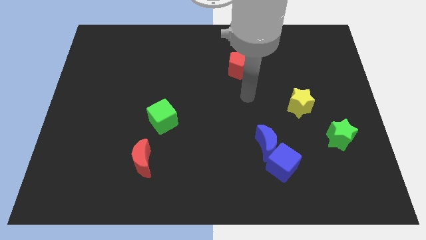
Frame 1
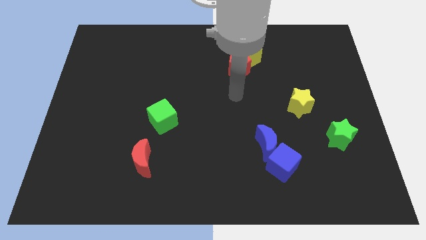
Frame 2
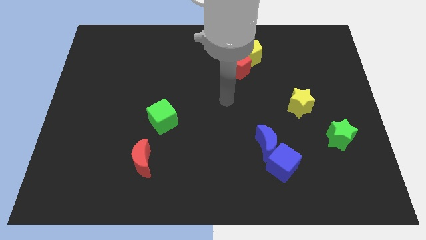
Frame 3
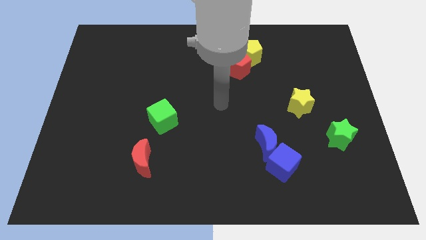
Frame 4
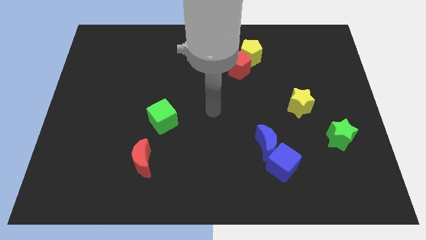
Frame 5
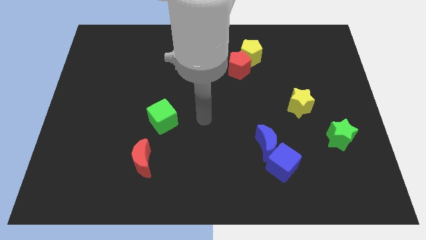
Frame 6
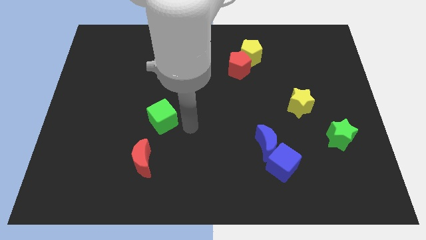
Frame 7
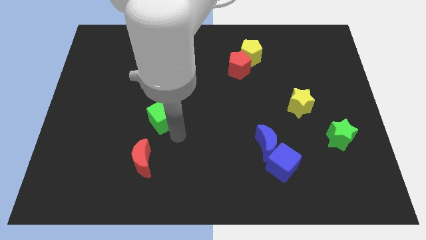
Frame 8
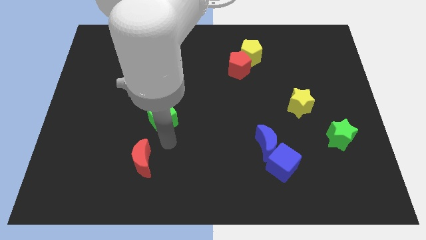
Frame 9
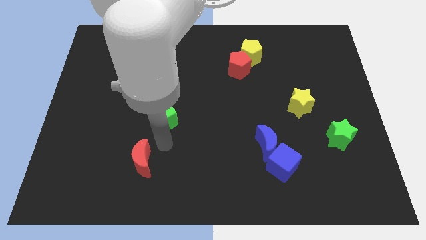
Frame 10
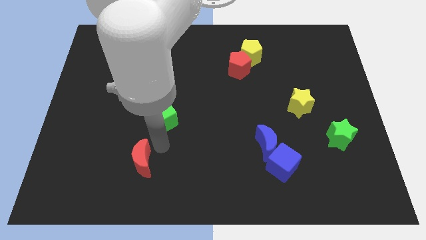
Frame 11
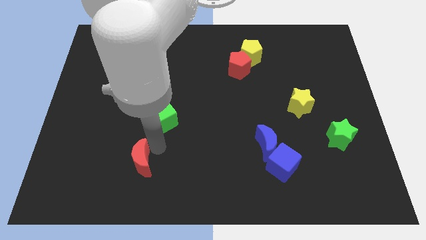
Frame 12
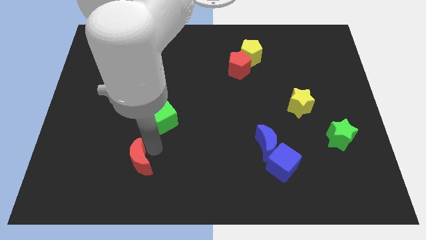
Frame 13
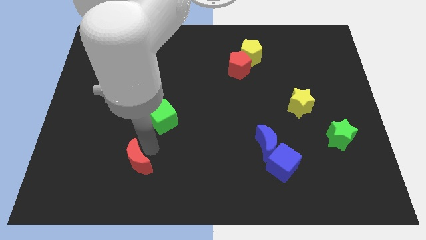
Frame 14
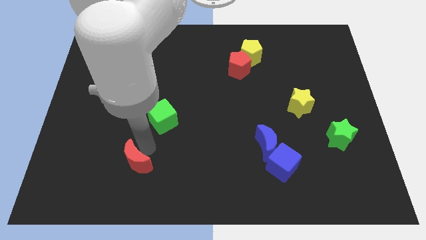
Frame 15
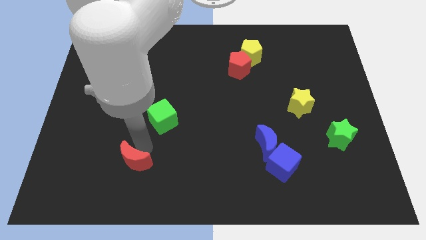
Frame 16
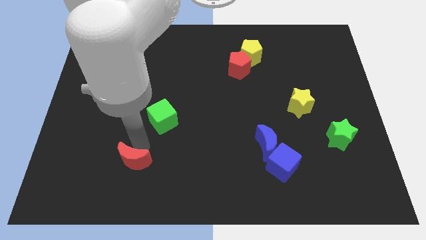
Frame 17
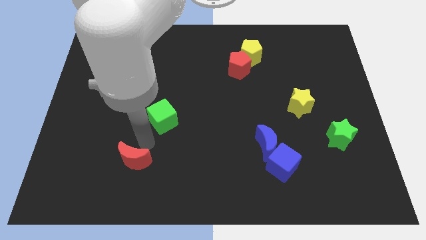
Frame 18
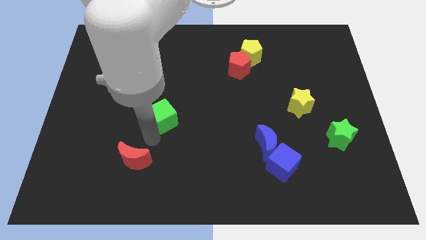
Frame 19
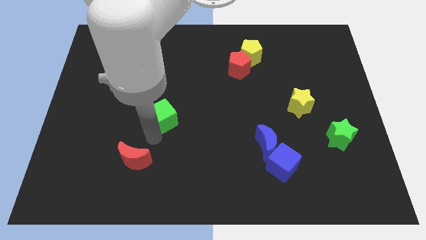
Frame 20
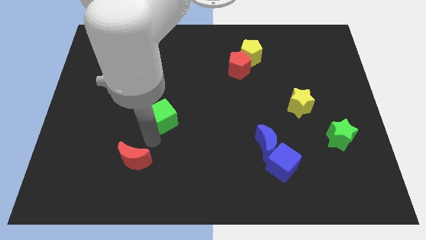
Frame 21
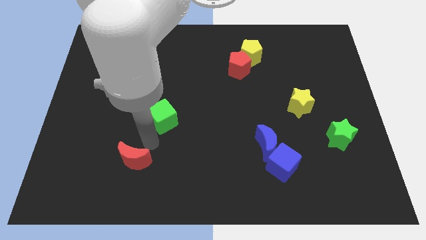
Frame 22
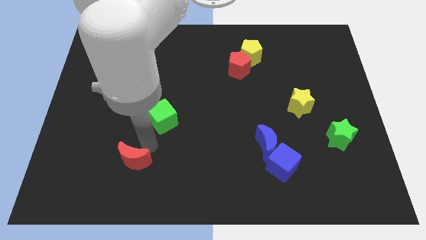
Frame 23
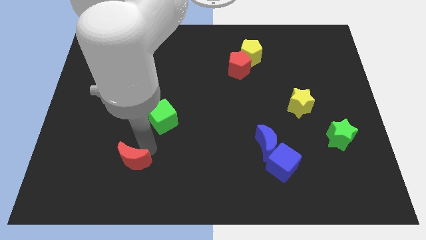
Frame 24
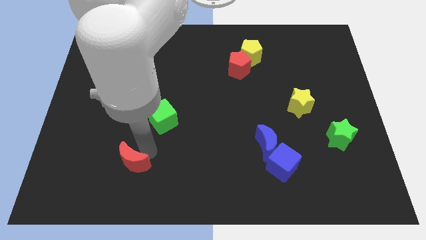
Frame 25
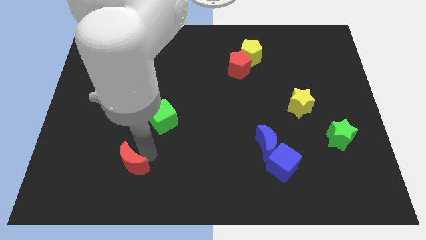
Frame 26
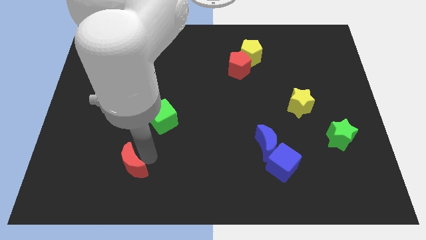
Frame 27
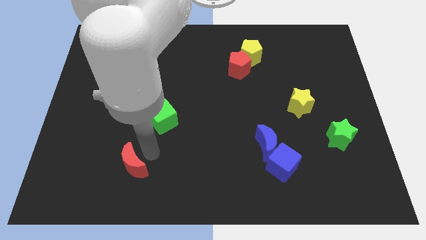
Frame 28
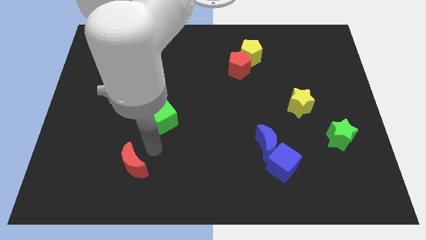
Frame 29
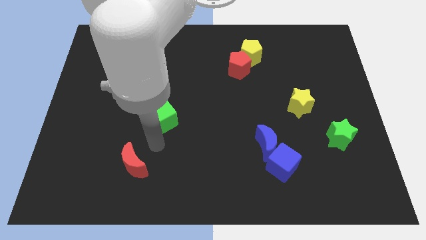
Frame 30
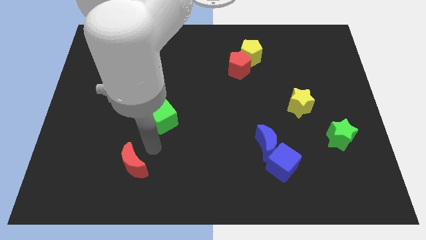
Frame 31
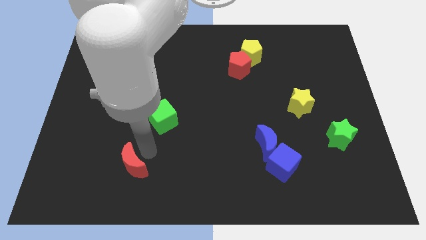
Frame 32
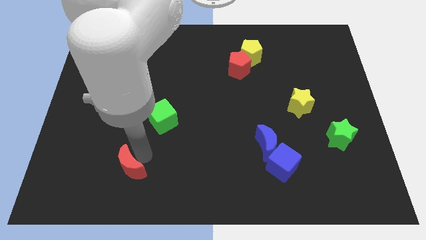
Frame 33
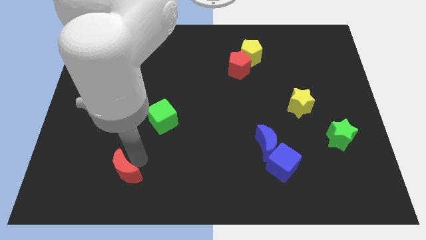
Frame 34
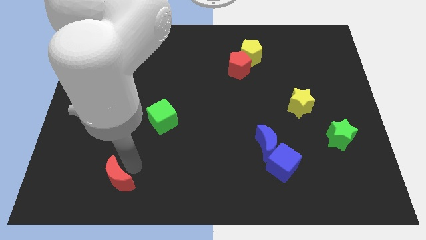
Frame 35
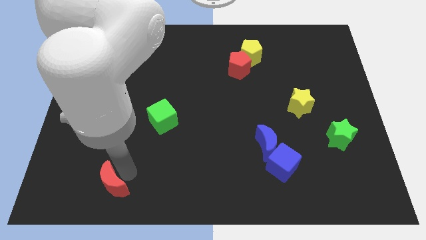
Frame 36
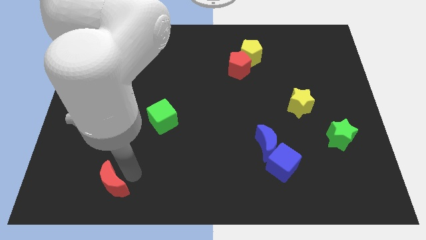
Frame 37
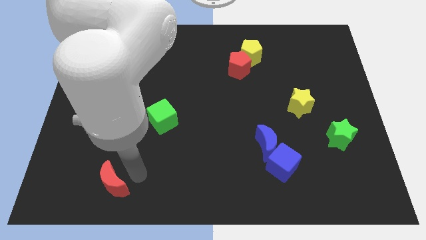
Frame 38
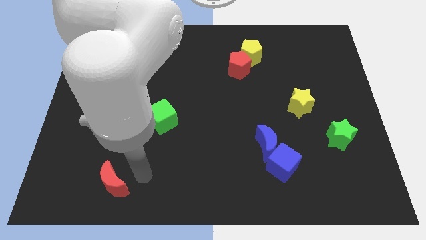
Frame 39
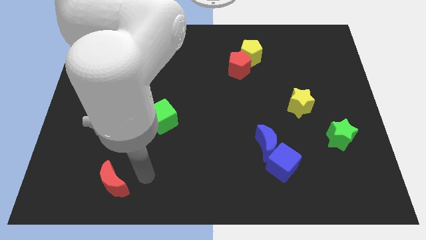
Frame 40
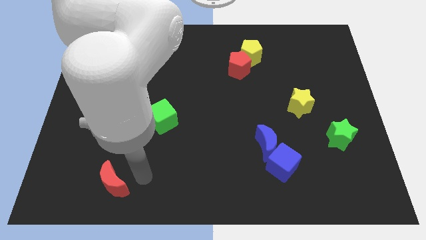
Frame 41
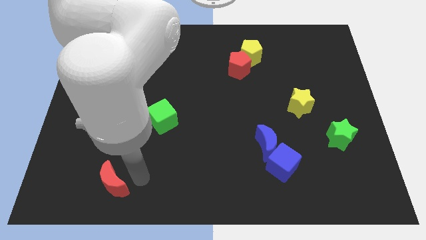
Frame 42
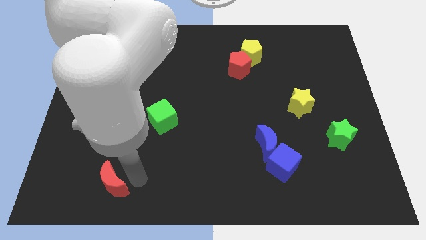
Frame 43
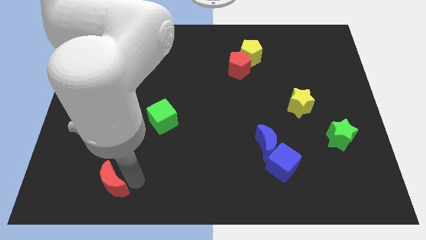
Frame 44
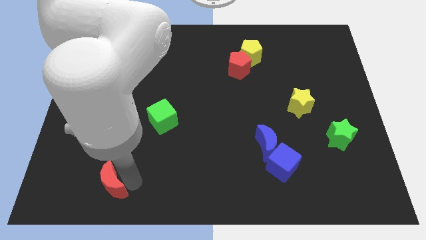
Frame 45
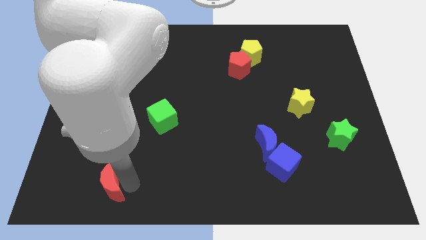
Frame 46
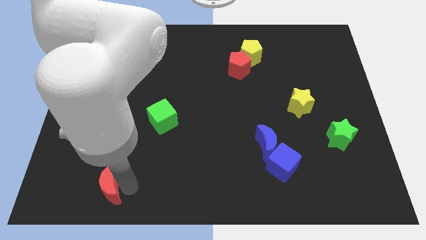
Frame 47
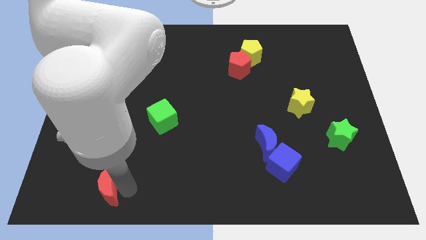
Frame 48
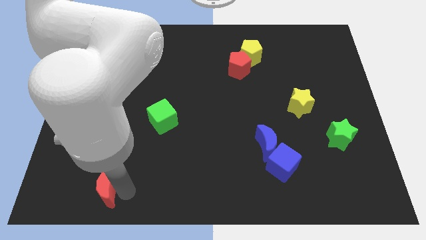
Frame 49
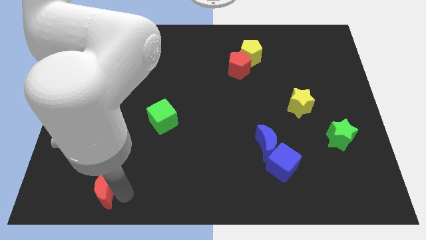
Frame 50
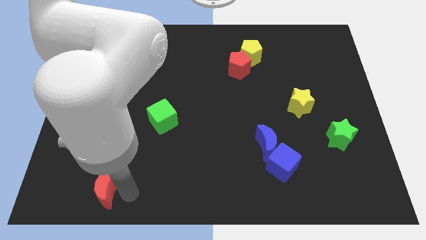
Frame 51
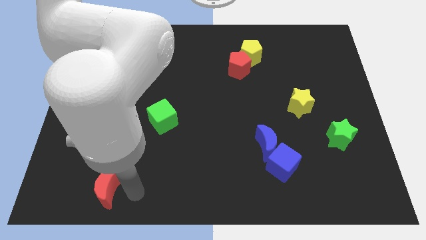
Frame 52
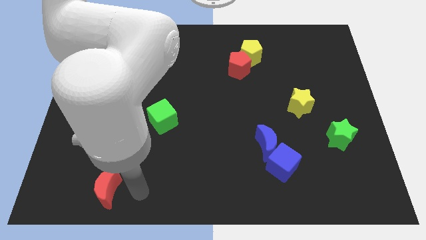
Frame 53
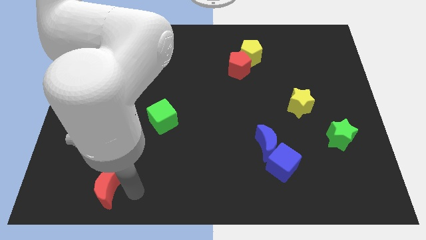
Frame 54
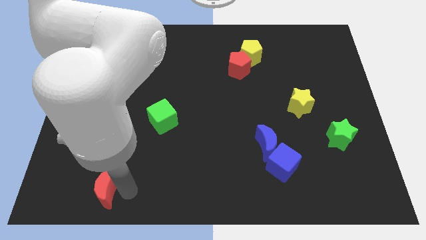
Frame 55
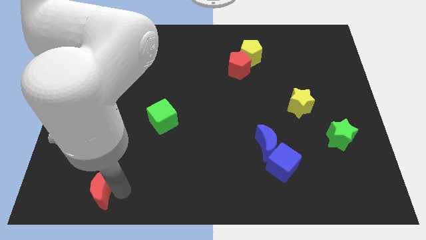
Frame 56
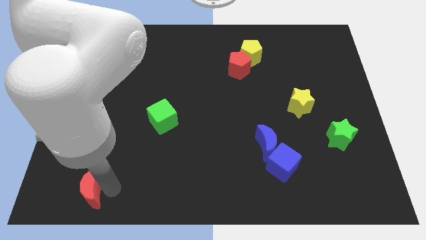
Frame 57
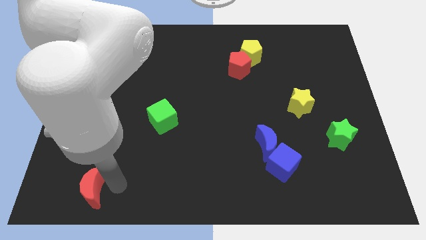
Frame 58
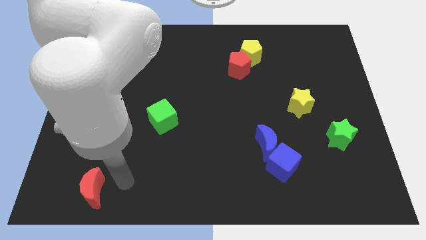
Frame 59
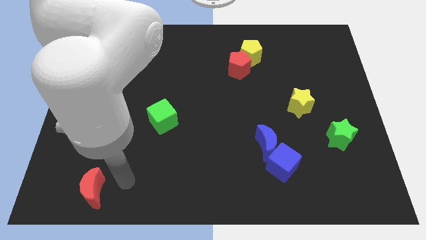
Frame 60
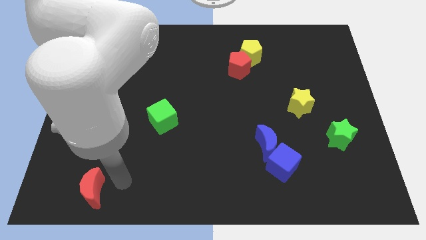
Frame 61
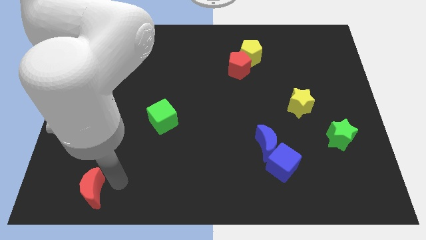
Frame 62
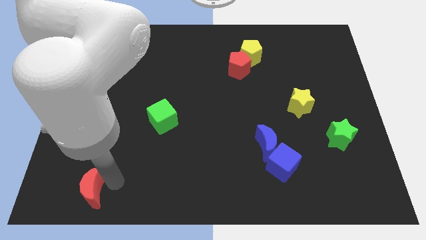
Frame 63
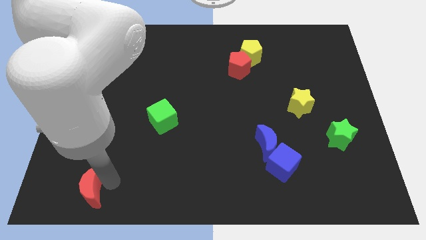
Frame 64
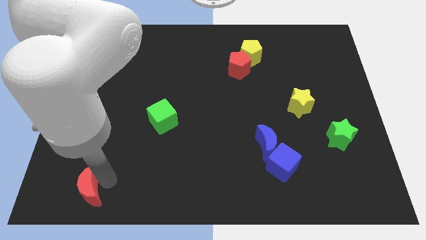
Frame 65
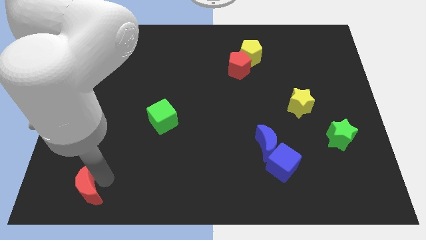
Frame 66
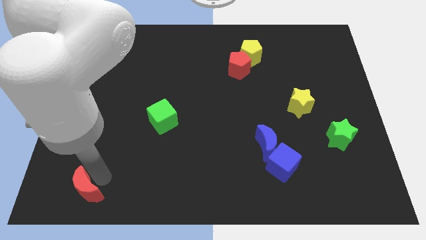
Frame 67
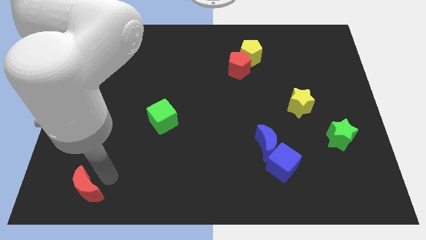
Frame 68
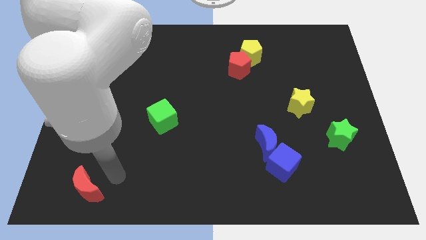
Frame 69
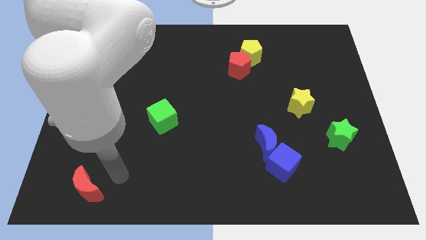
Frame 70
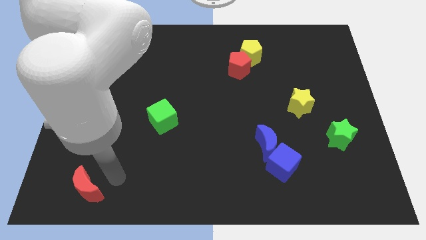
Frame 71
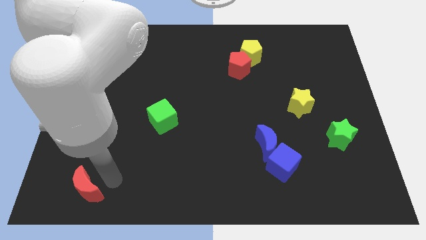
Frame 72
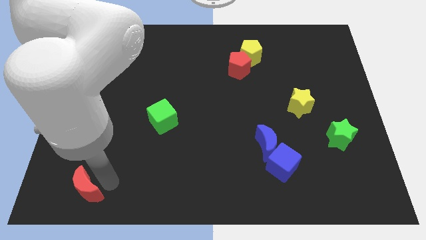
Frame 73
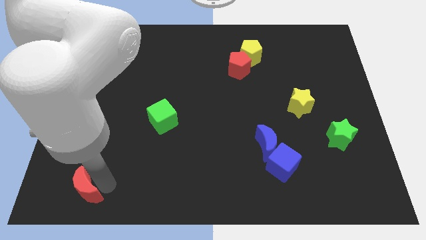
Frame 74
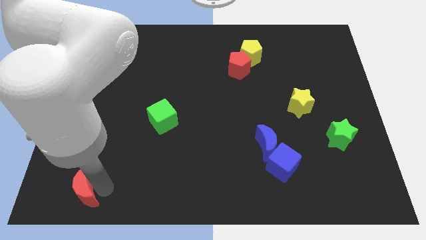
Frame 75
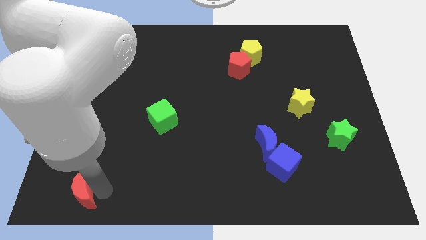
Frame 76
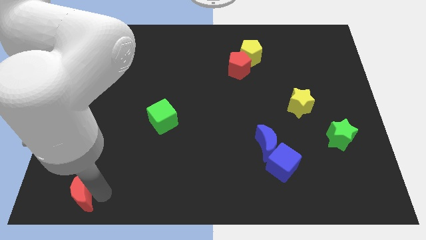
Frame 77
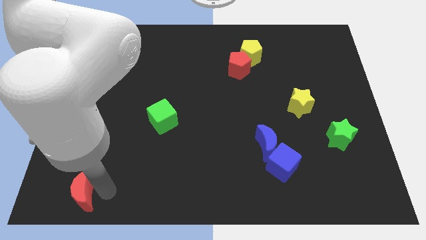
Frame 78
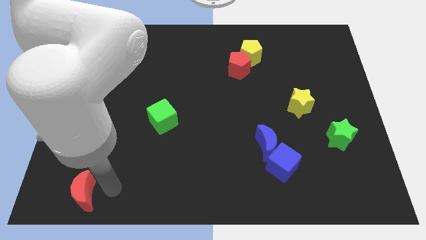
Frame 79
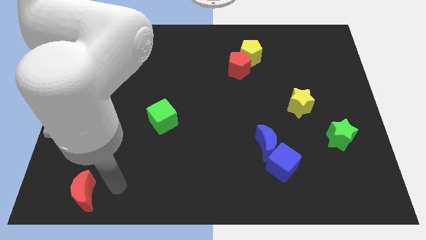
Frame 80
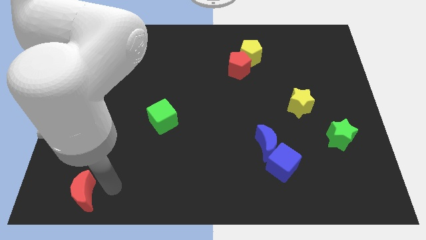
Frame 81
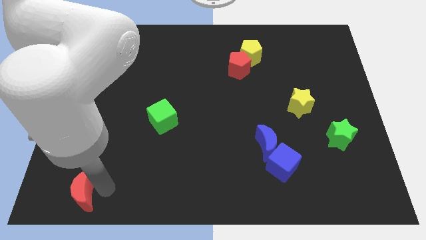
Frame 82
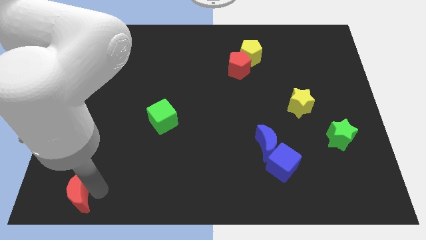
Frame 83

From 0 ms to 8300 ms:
slide the red moon to the bottom left of the board
